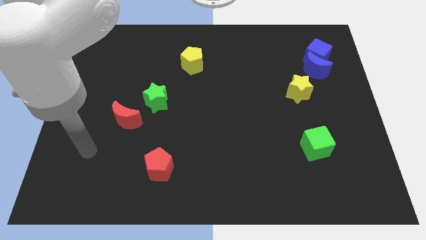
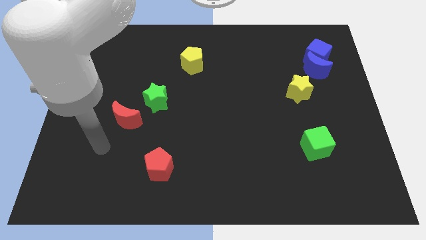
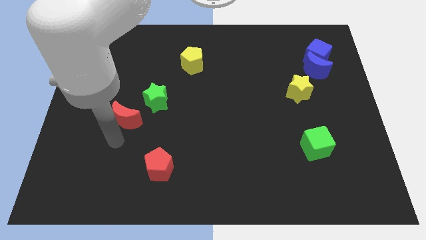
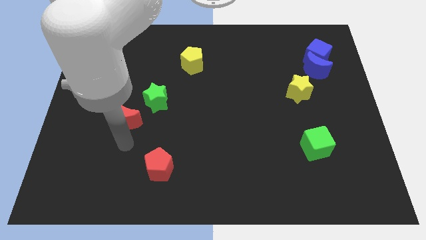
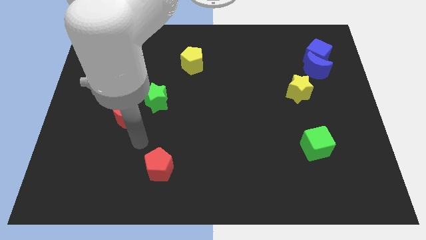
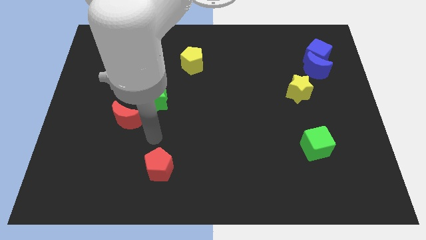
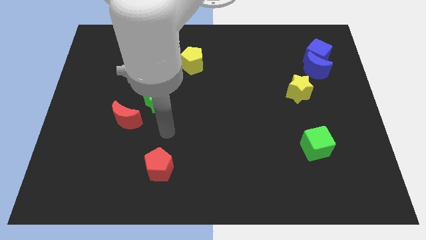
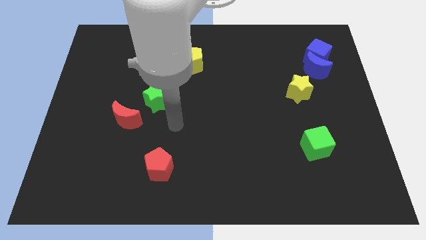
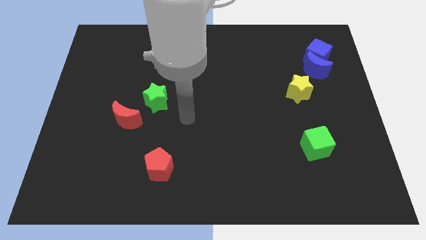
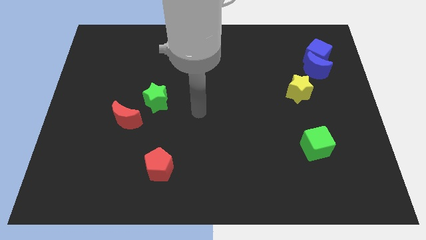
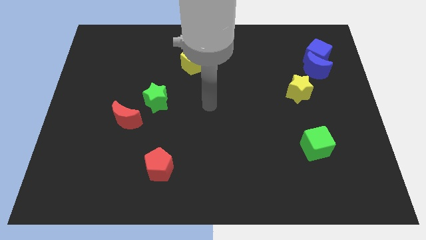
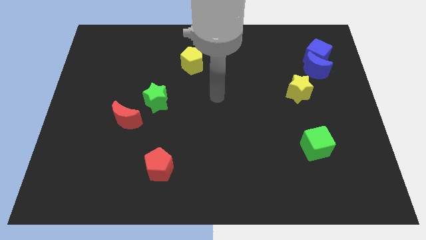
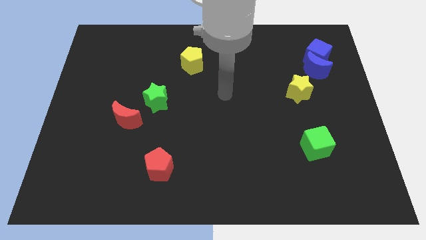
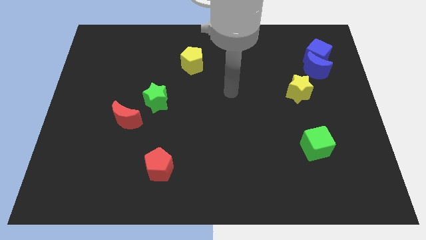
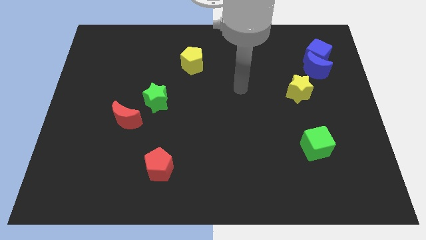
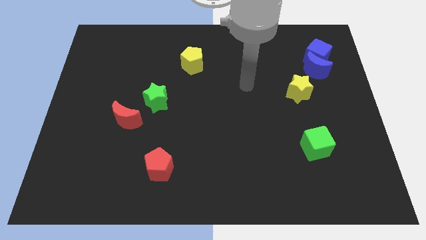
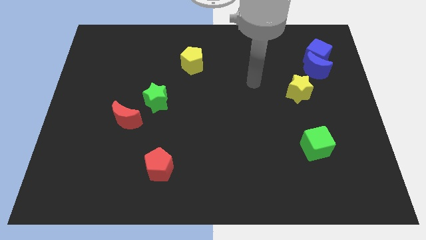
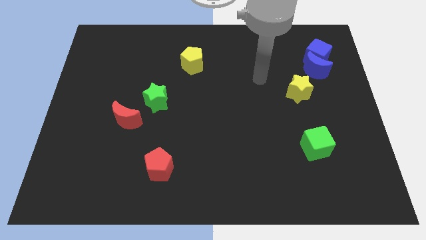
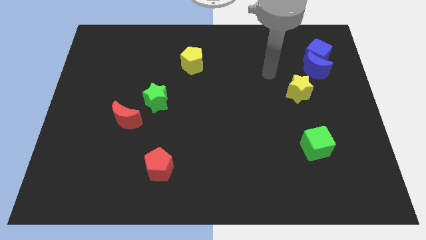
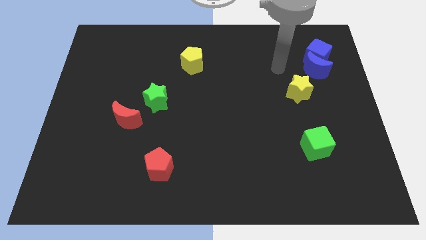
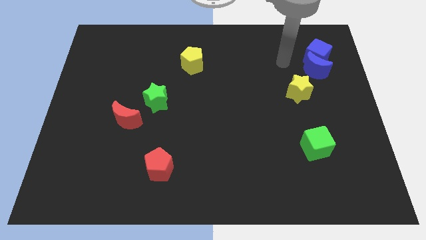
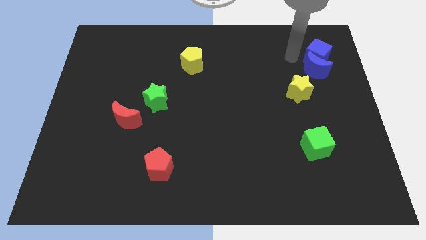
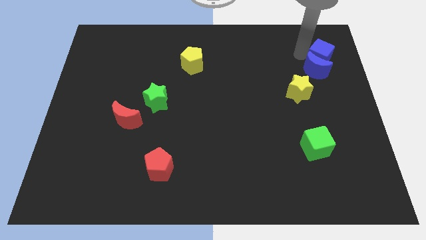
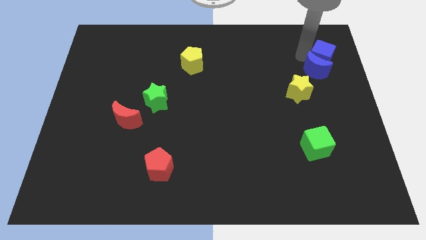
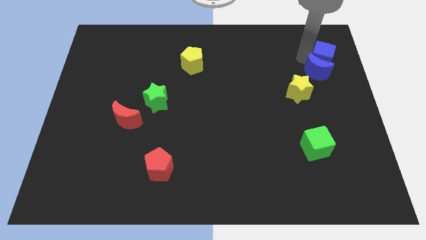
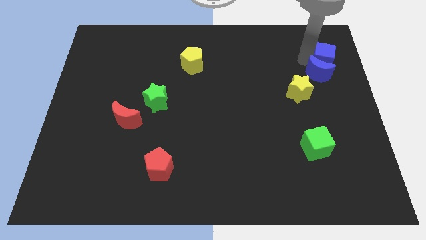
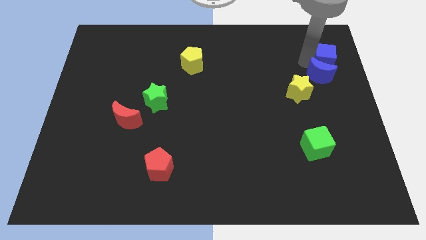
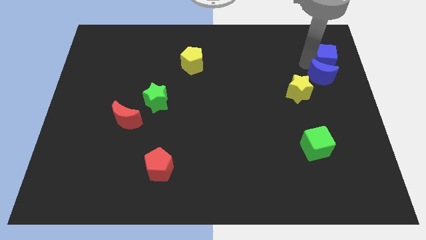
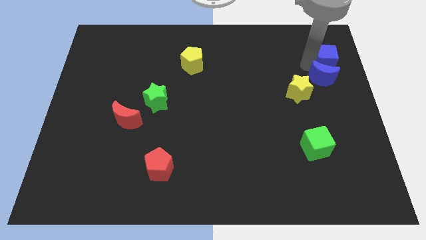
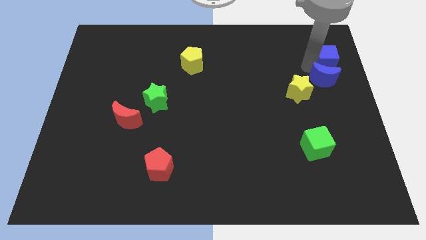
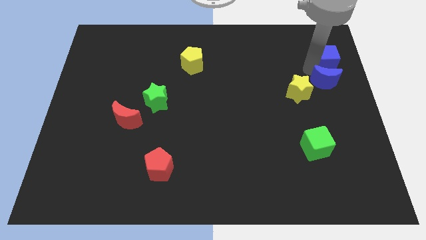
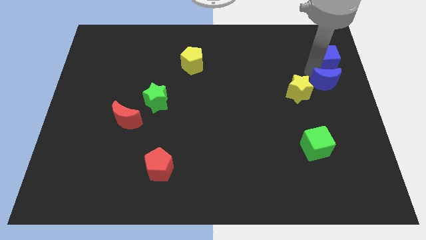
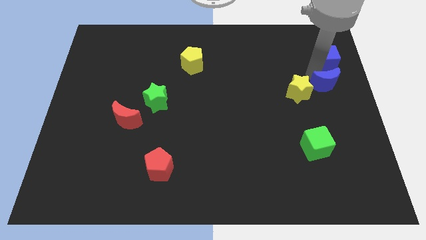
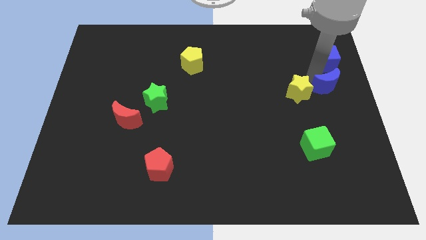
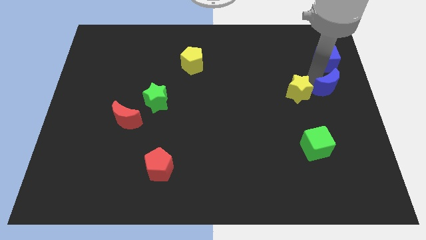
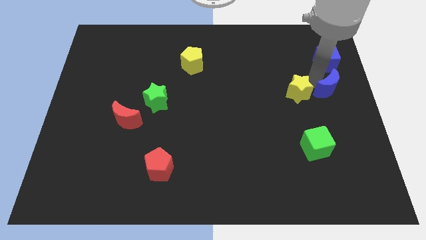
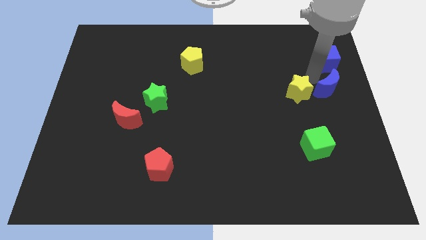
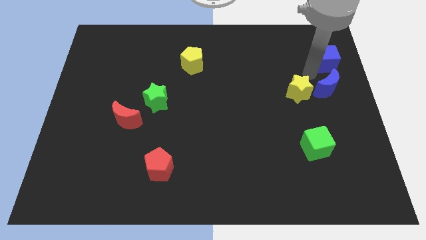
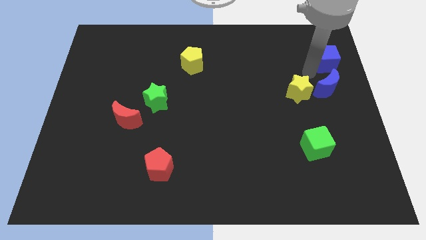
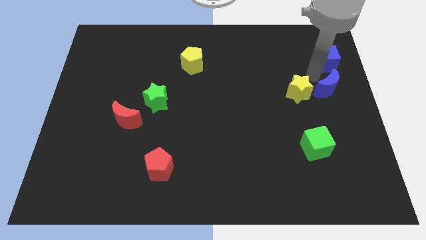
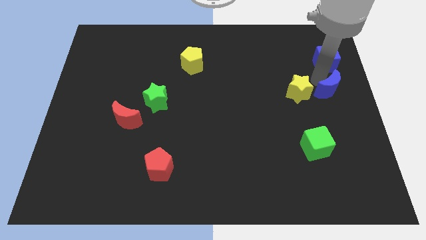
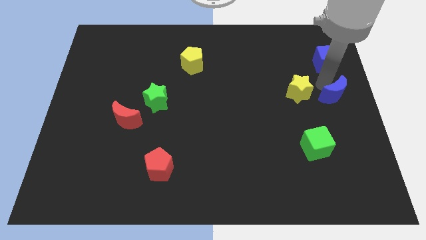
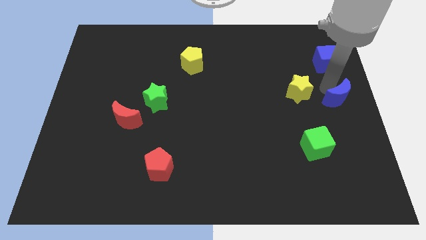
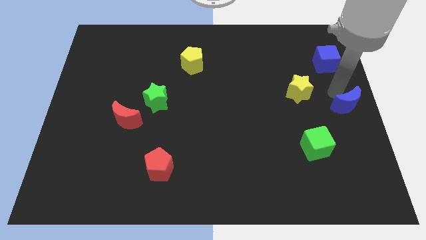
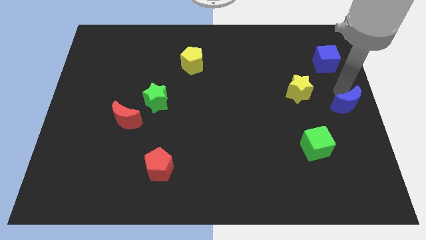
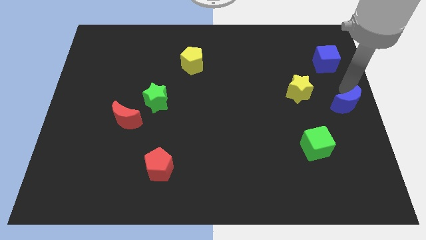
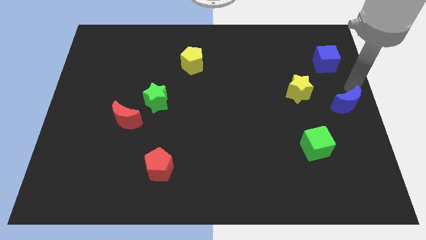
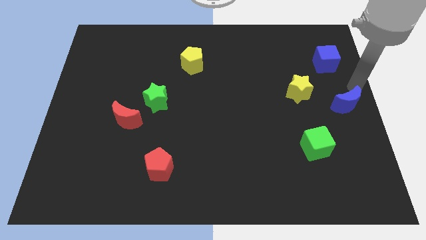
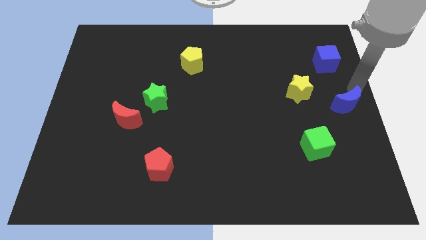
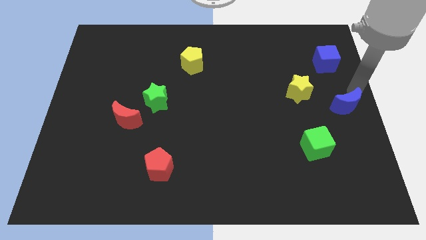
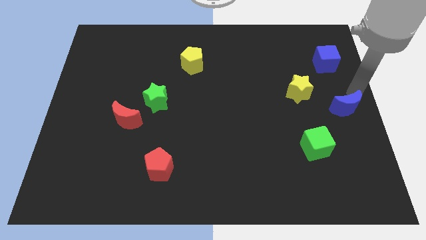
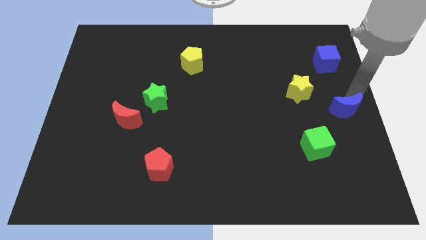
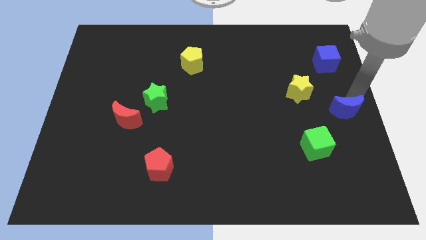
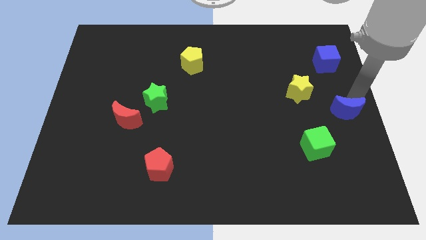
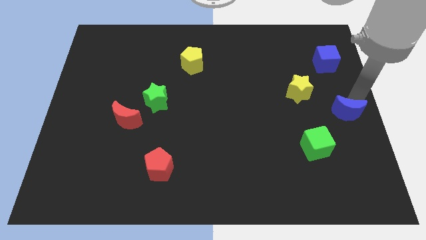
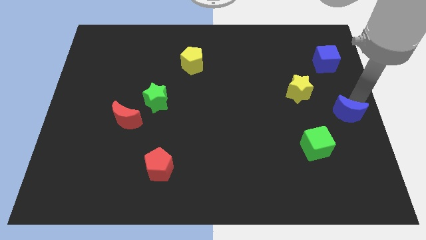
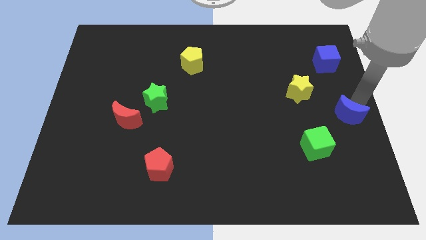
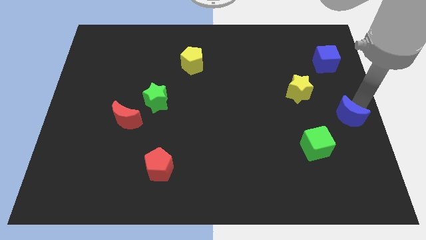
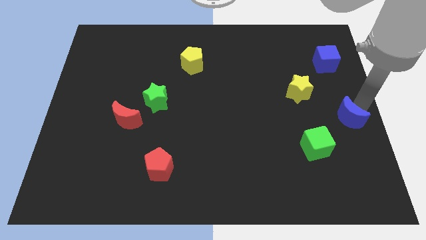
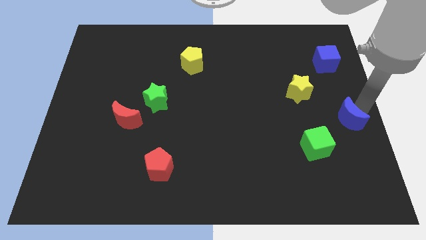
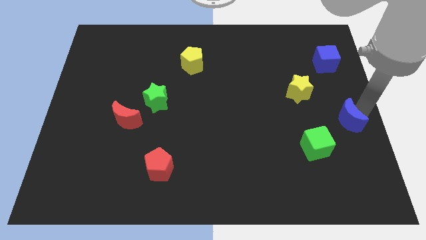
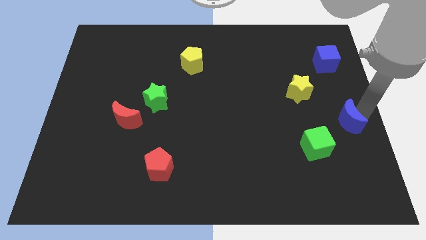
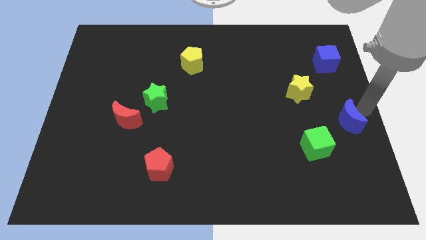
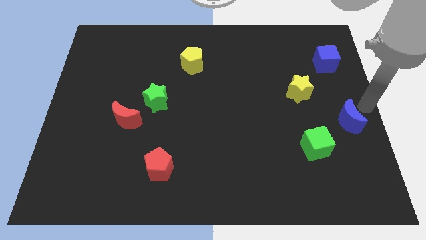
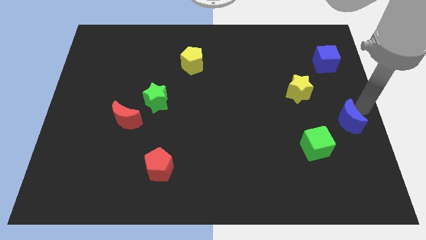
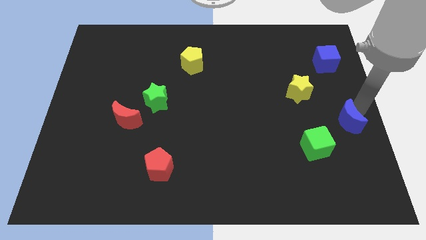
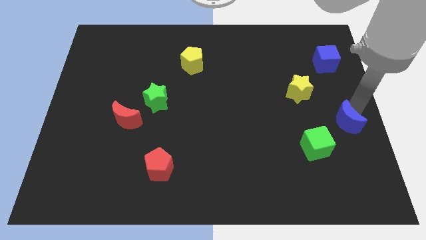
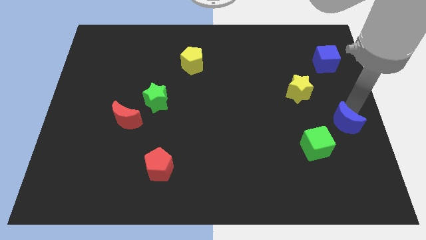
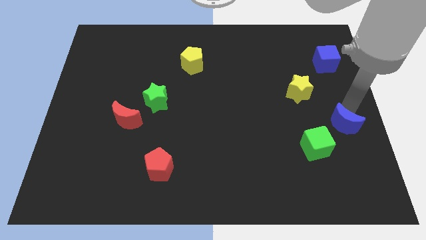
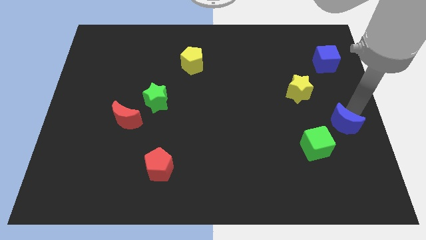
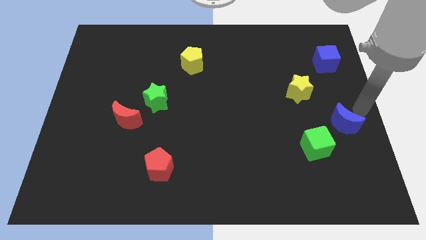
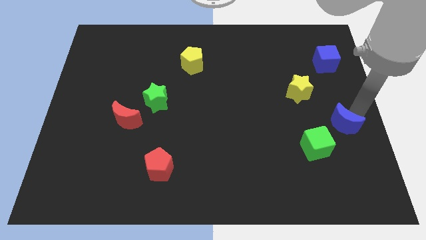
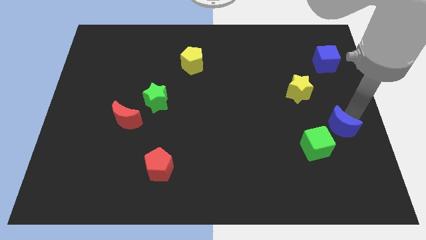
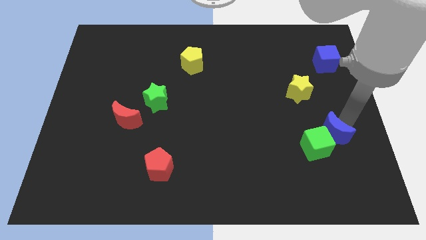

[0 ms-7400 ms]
push the blue moon close to the green cube
